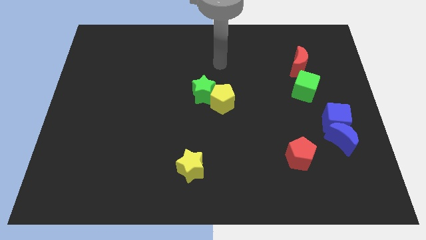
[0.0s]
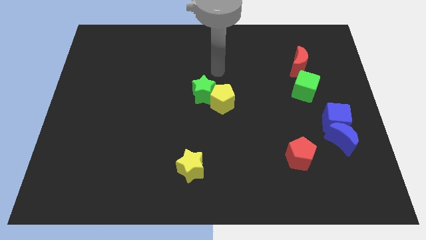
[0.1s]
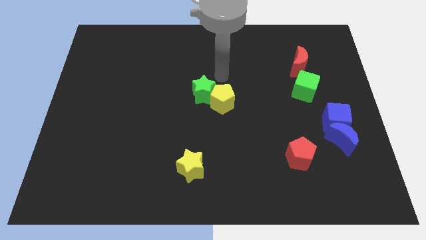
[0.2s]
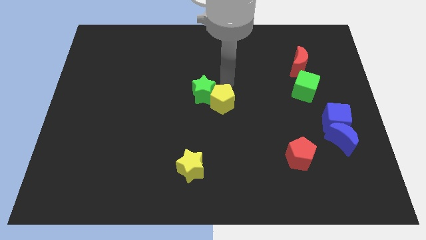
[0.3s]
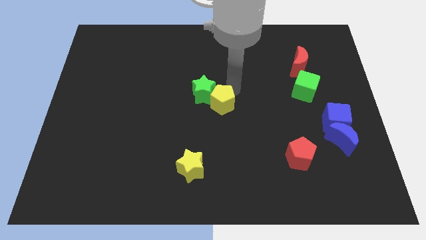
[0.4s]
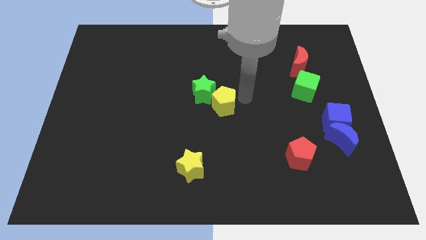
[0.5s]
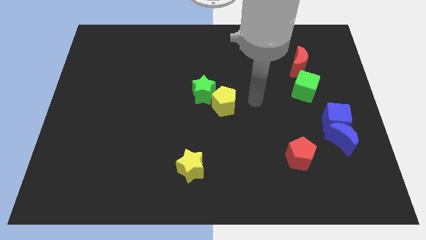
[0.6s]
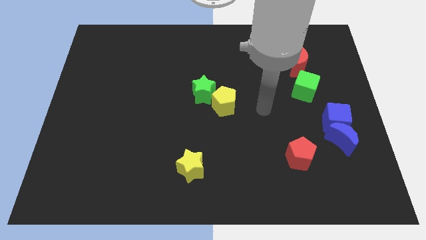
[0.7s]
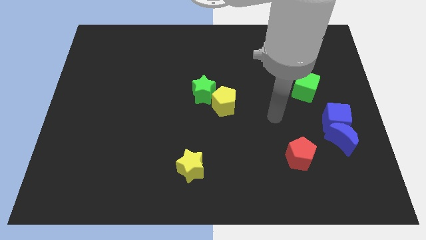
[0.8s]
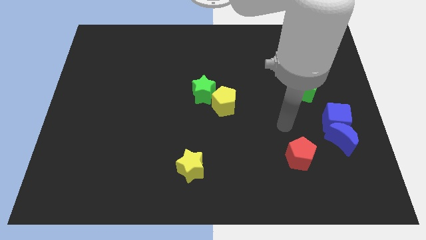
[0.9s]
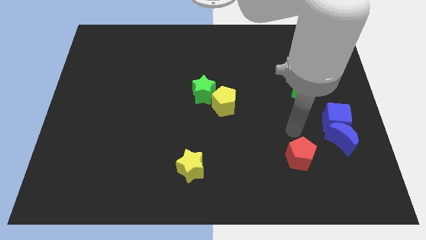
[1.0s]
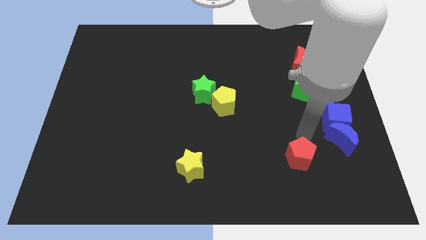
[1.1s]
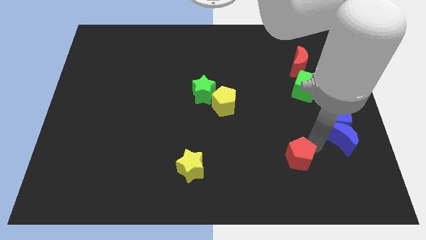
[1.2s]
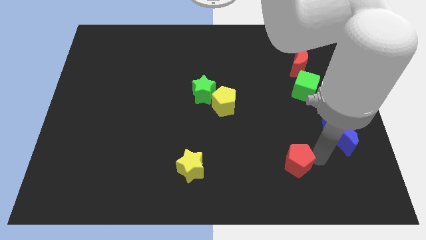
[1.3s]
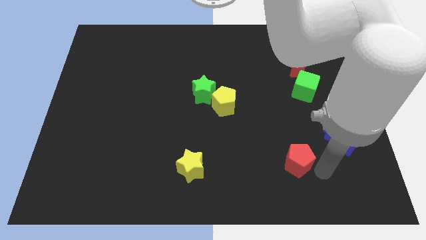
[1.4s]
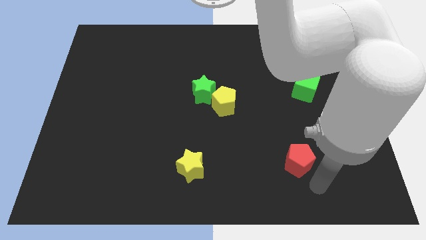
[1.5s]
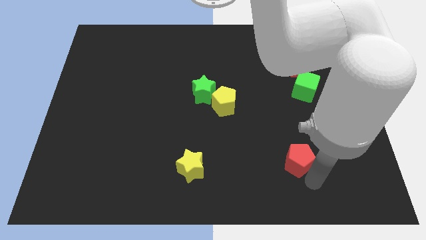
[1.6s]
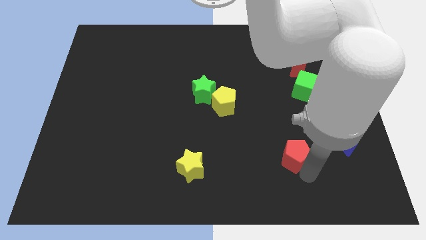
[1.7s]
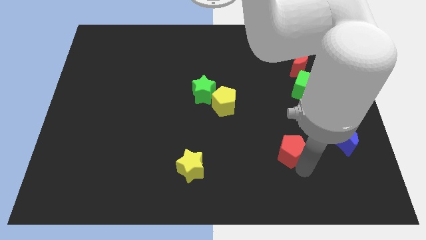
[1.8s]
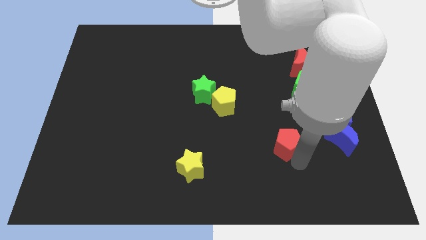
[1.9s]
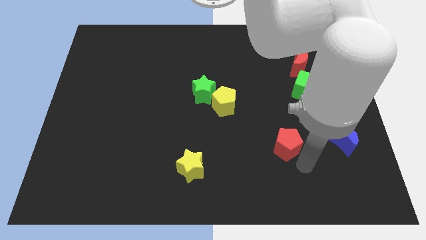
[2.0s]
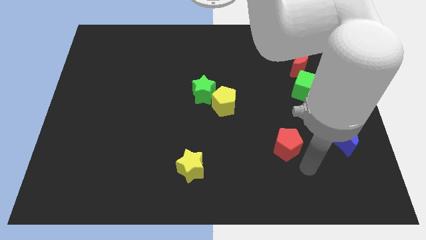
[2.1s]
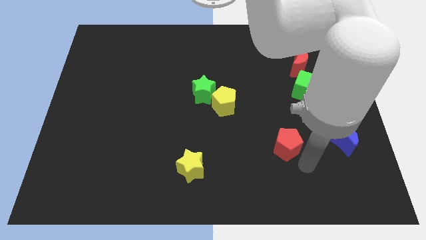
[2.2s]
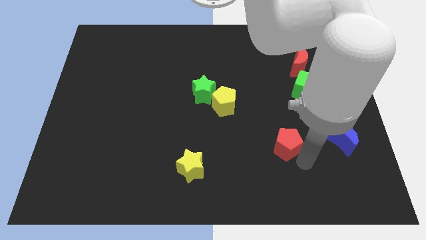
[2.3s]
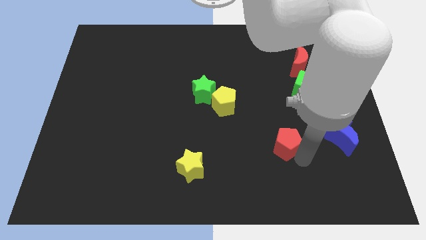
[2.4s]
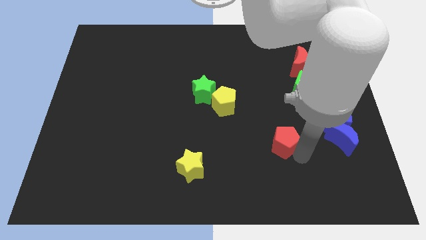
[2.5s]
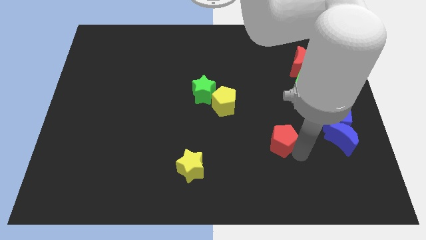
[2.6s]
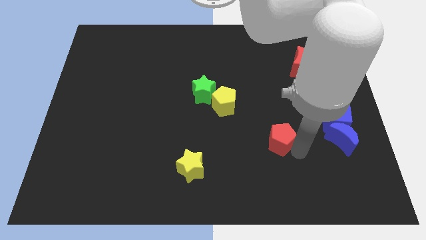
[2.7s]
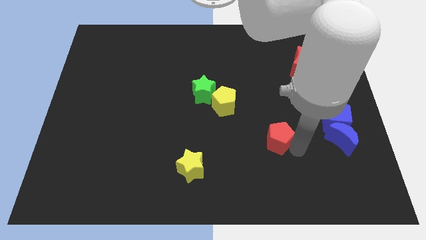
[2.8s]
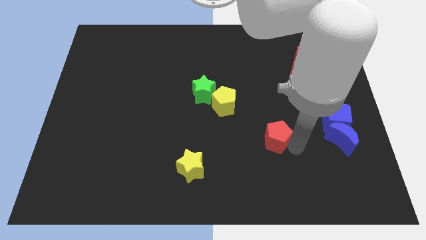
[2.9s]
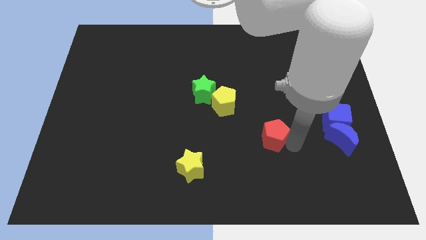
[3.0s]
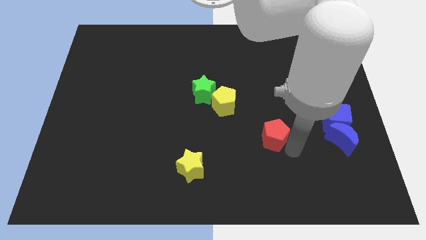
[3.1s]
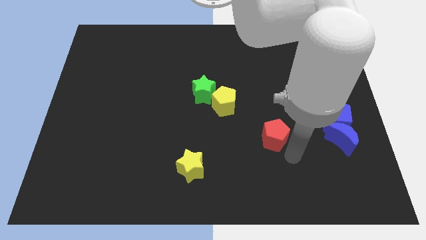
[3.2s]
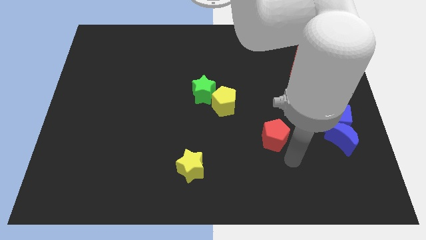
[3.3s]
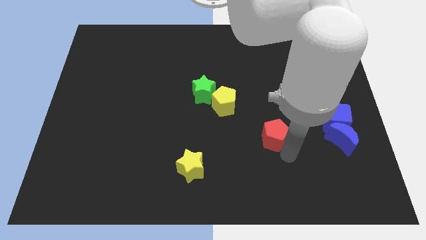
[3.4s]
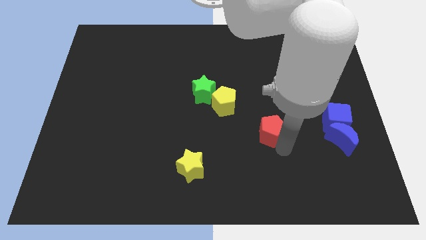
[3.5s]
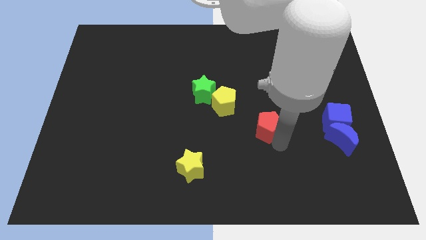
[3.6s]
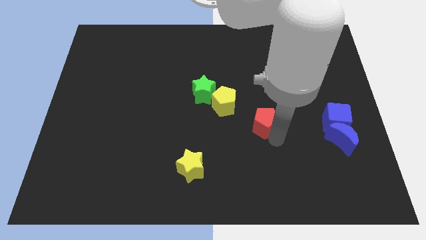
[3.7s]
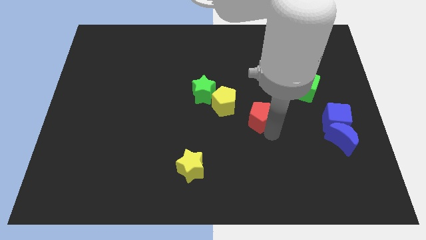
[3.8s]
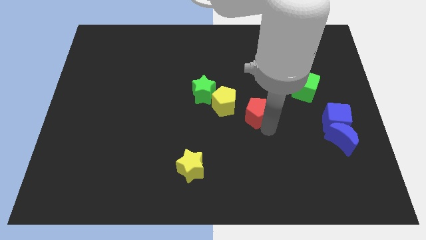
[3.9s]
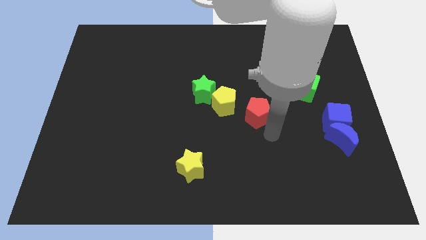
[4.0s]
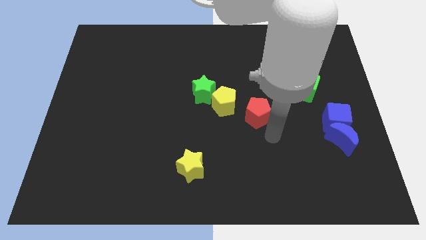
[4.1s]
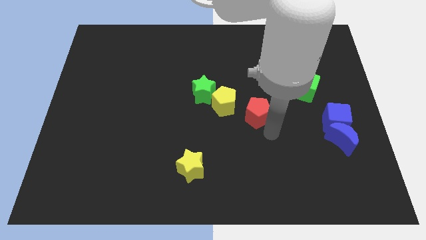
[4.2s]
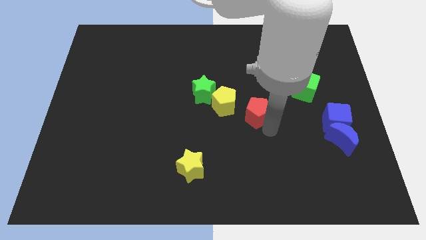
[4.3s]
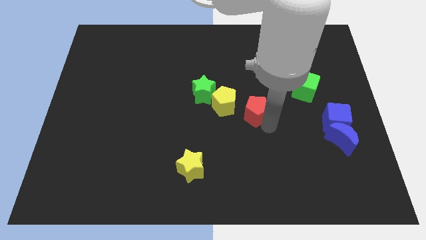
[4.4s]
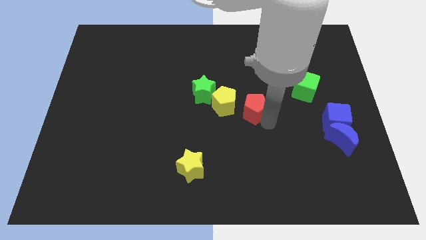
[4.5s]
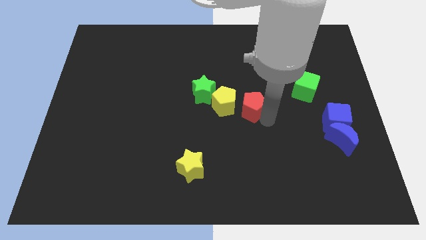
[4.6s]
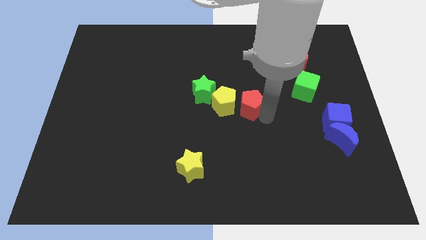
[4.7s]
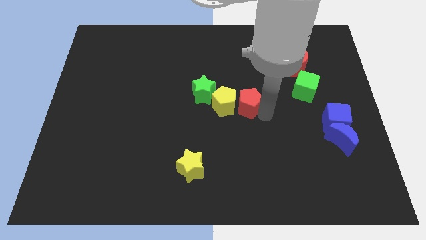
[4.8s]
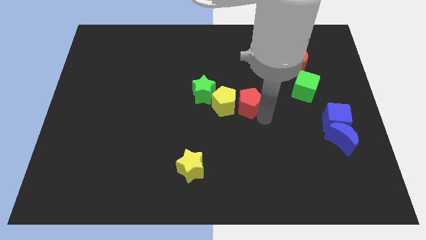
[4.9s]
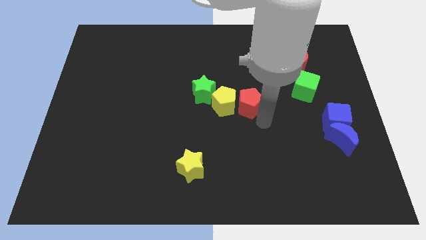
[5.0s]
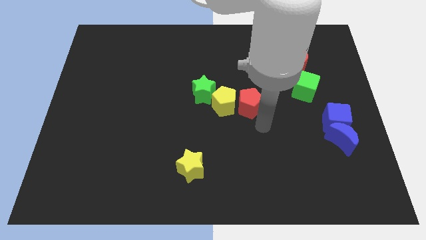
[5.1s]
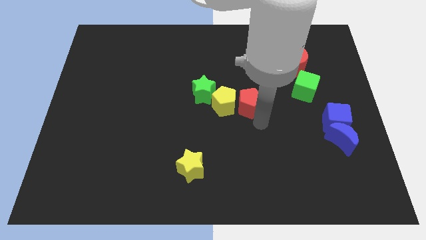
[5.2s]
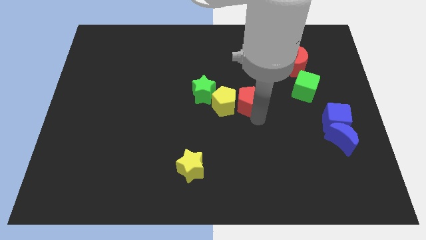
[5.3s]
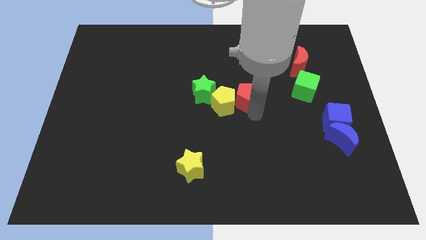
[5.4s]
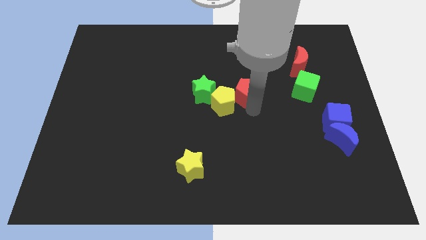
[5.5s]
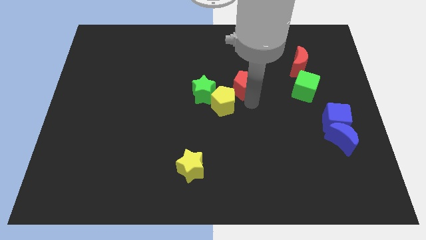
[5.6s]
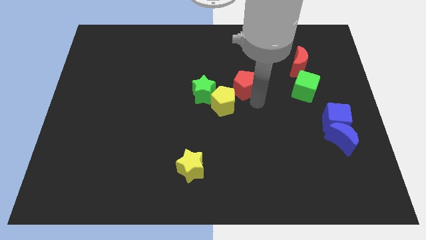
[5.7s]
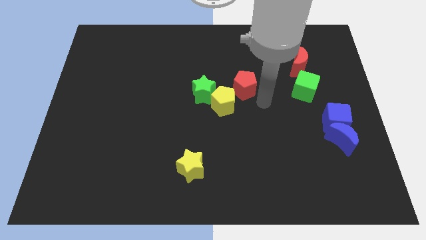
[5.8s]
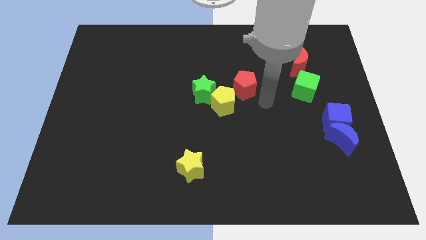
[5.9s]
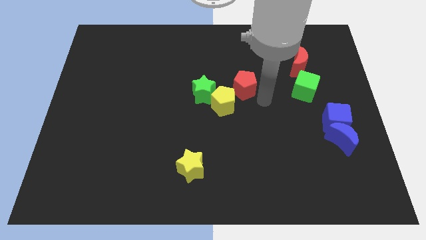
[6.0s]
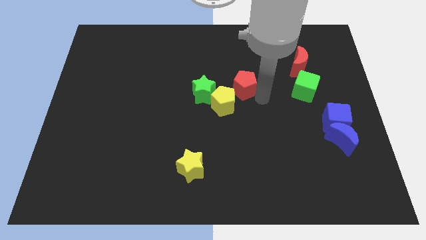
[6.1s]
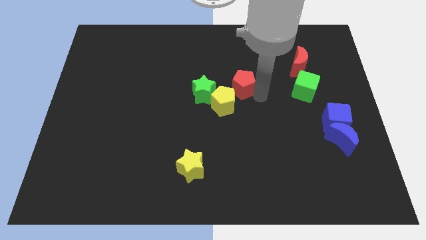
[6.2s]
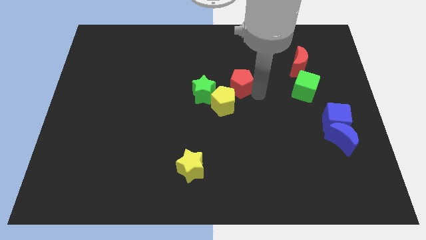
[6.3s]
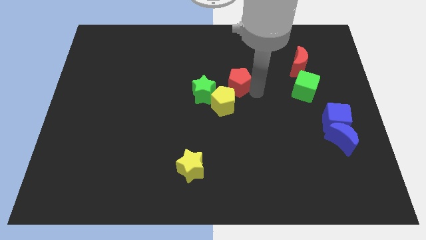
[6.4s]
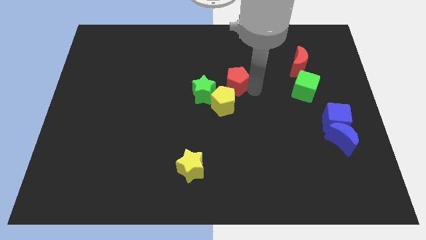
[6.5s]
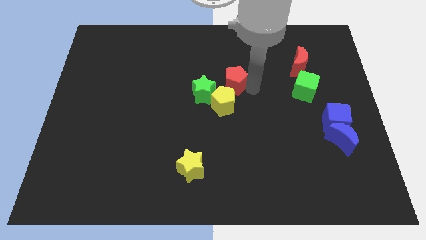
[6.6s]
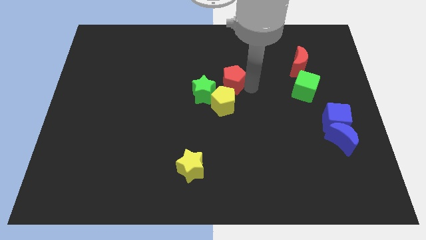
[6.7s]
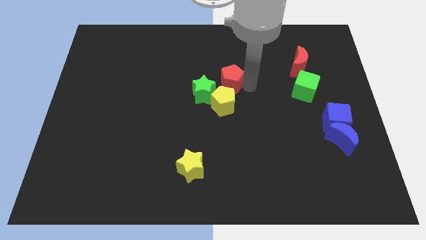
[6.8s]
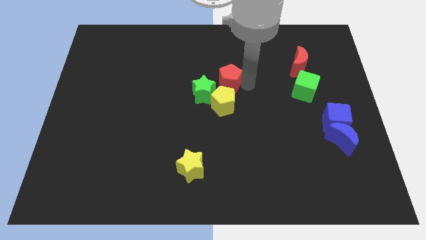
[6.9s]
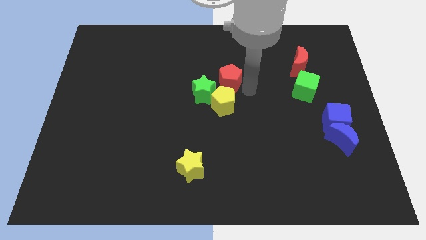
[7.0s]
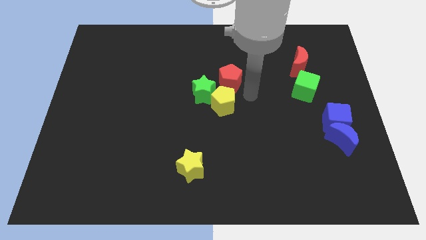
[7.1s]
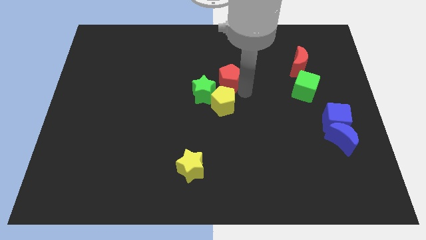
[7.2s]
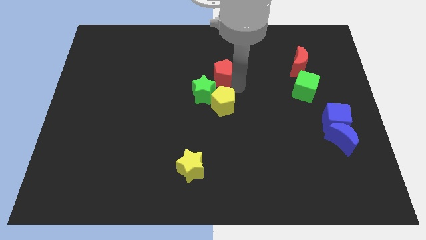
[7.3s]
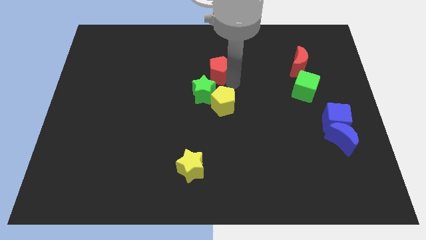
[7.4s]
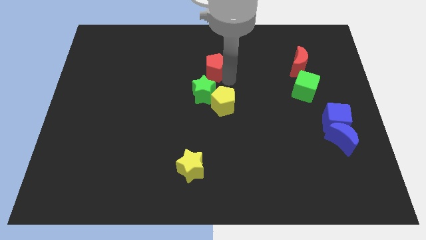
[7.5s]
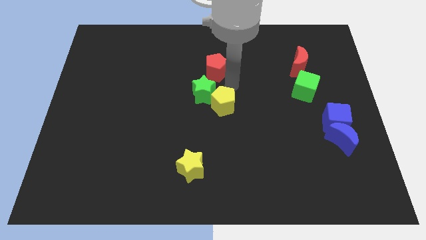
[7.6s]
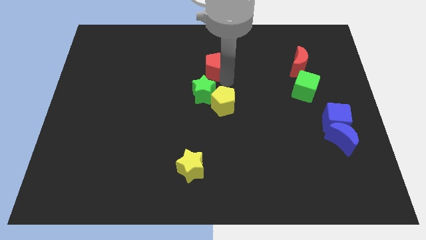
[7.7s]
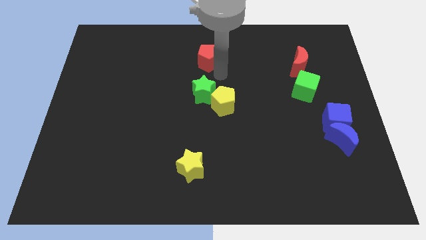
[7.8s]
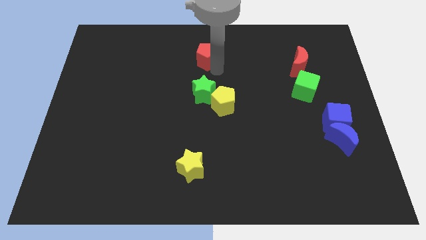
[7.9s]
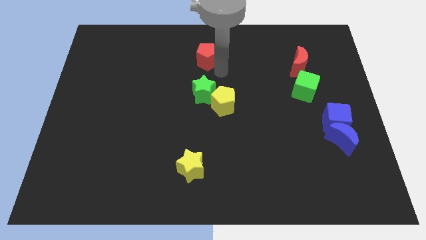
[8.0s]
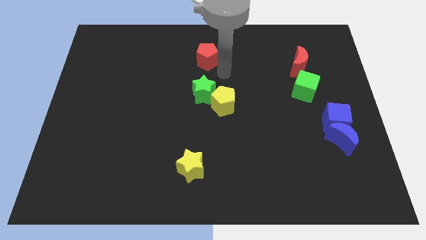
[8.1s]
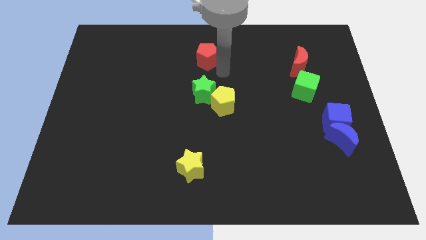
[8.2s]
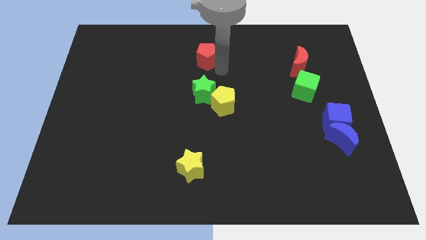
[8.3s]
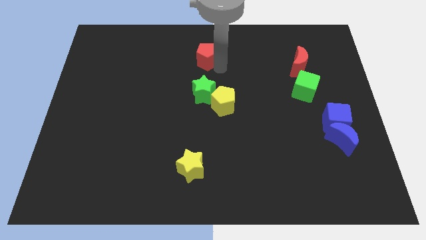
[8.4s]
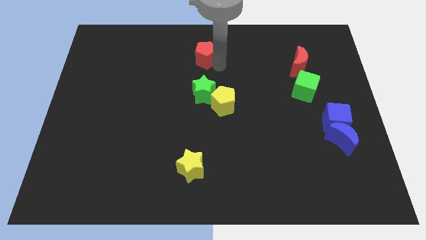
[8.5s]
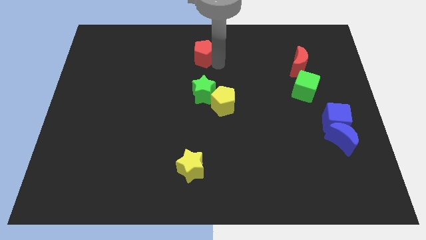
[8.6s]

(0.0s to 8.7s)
move the red pentagon to the top
